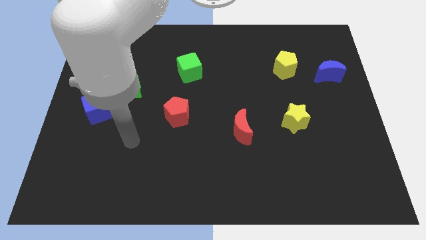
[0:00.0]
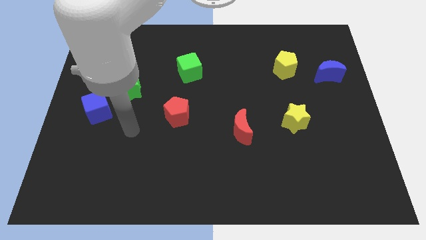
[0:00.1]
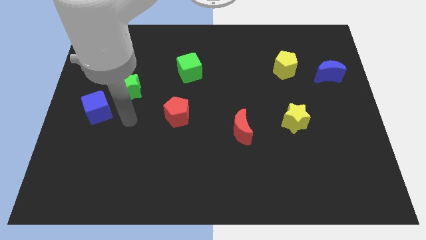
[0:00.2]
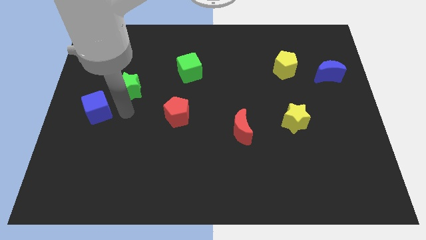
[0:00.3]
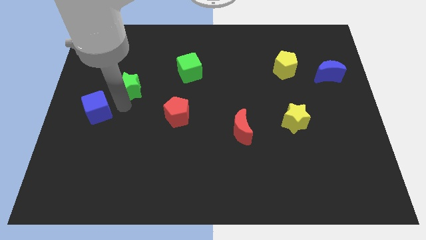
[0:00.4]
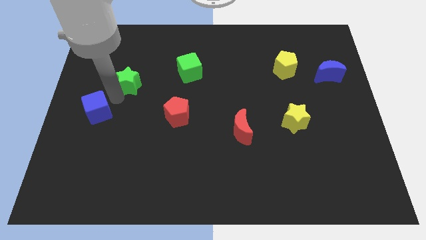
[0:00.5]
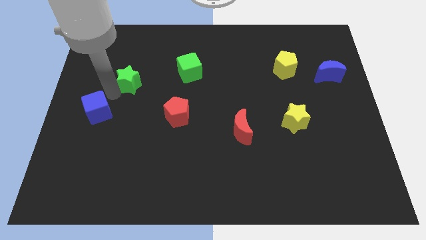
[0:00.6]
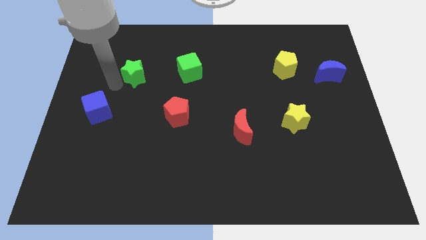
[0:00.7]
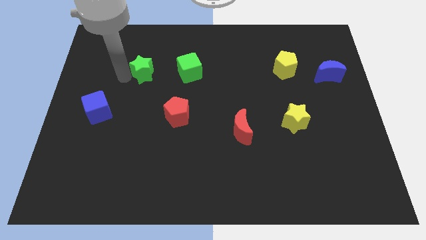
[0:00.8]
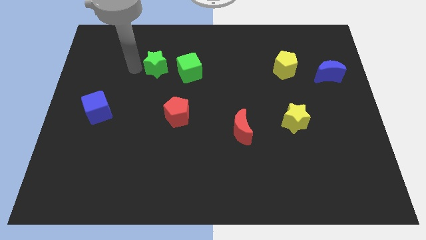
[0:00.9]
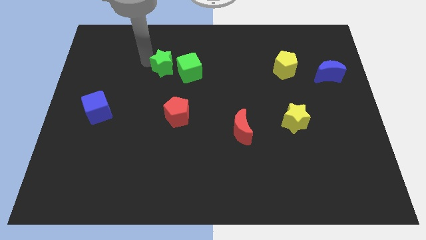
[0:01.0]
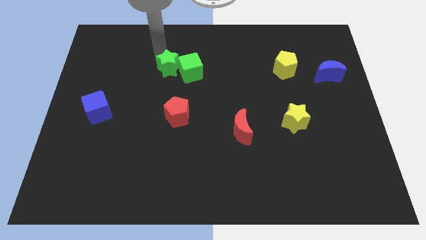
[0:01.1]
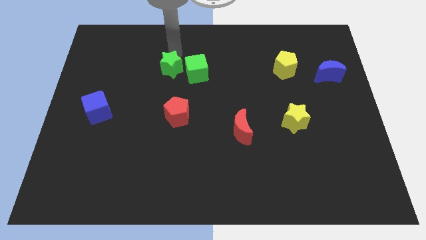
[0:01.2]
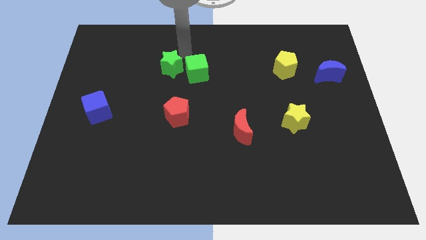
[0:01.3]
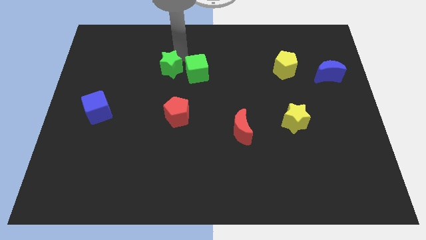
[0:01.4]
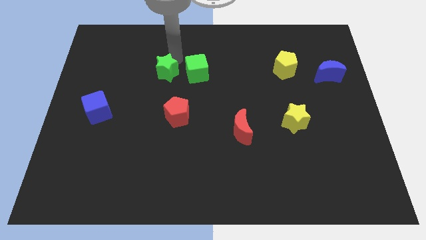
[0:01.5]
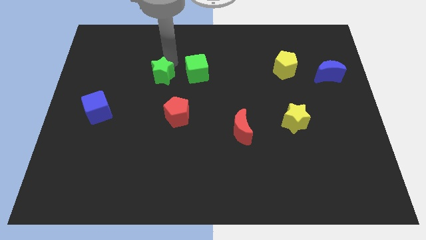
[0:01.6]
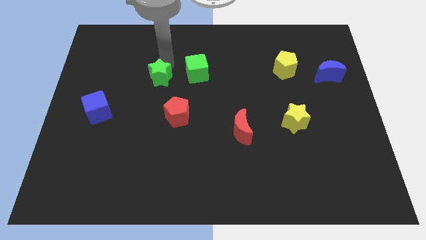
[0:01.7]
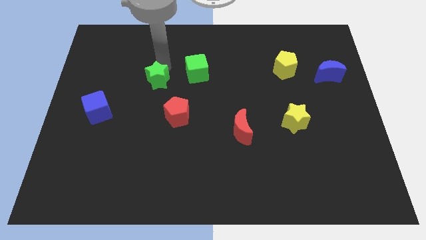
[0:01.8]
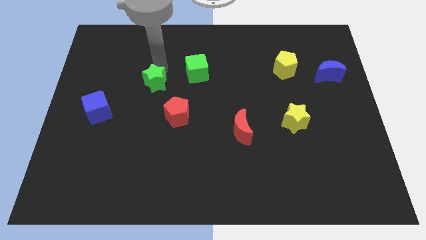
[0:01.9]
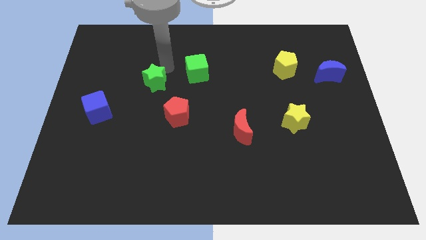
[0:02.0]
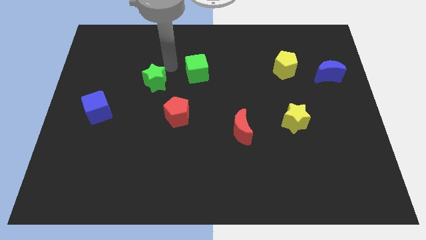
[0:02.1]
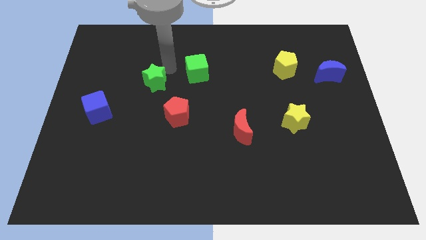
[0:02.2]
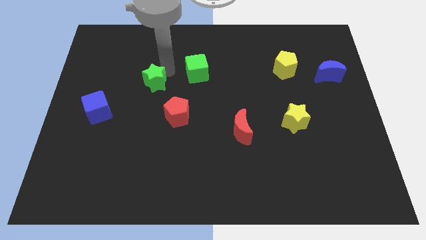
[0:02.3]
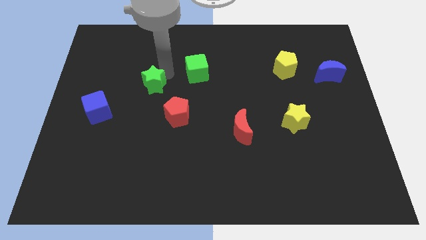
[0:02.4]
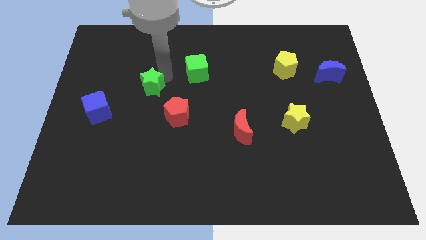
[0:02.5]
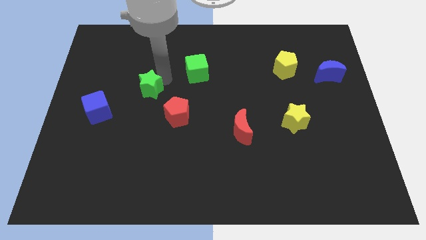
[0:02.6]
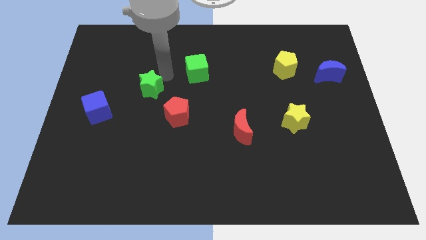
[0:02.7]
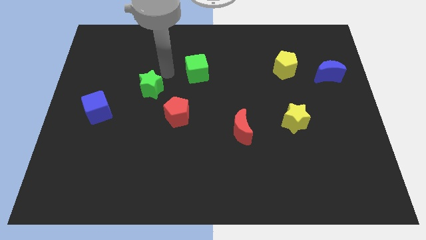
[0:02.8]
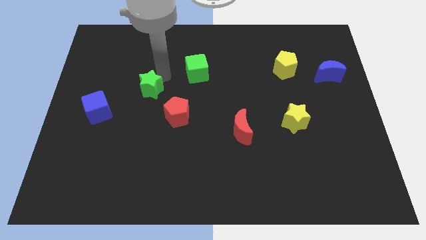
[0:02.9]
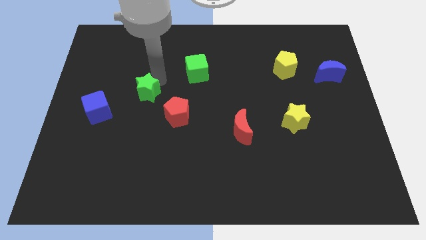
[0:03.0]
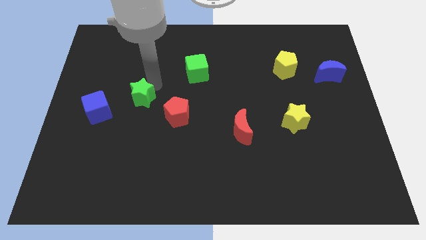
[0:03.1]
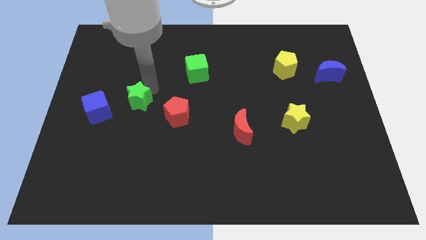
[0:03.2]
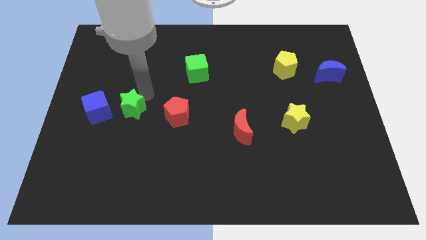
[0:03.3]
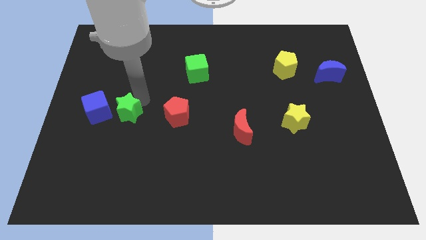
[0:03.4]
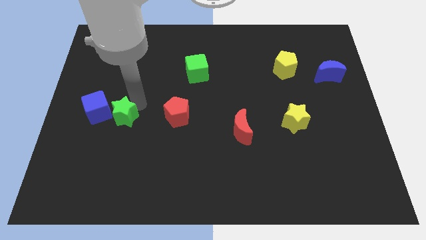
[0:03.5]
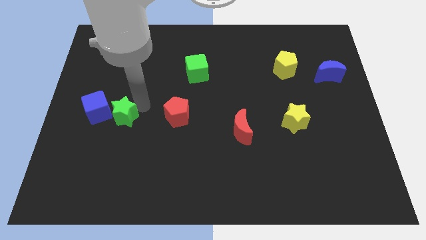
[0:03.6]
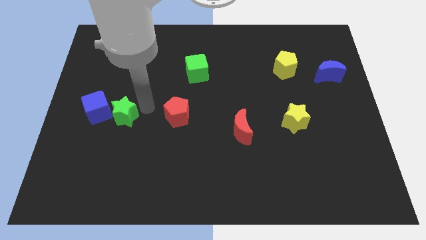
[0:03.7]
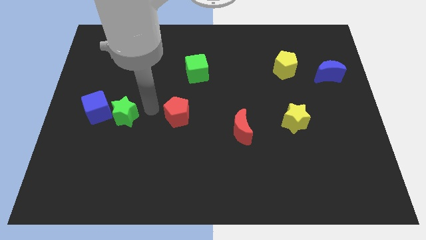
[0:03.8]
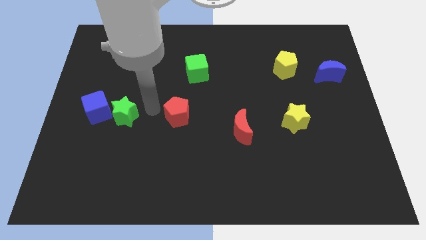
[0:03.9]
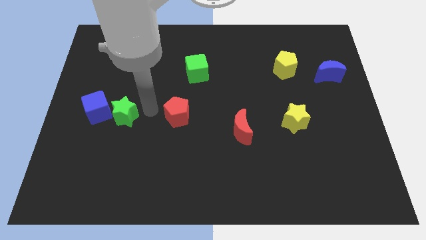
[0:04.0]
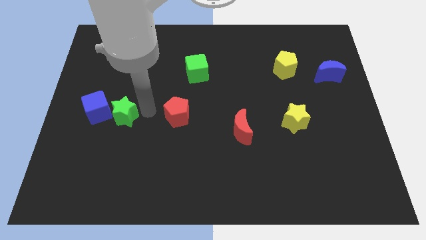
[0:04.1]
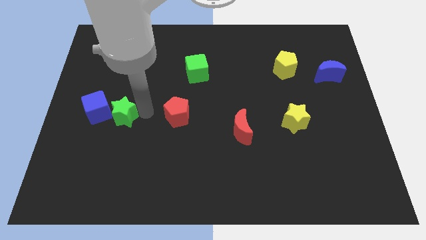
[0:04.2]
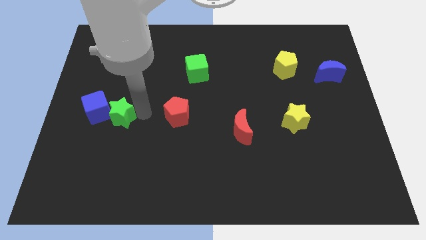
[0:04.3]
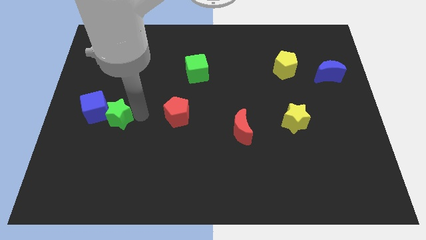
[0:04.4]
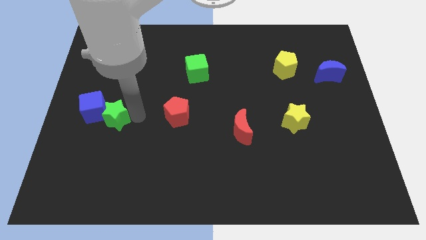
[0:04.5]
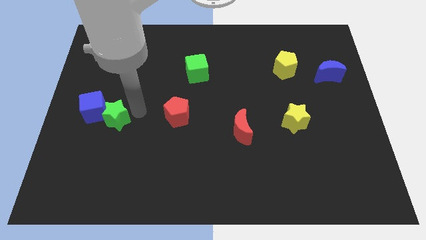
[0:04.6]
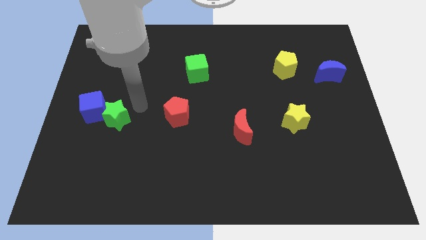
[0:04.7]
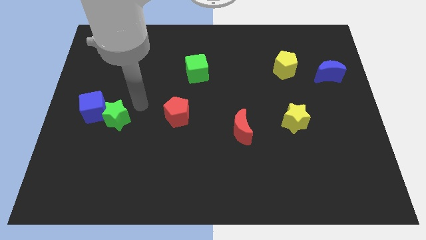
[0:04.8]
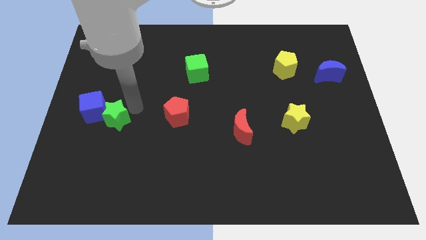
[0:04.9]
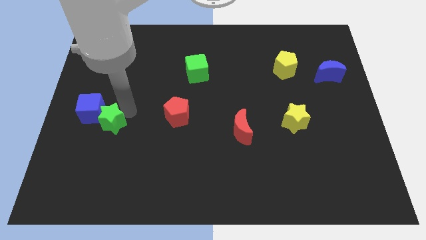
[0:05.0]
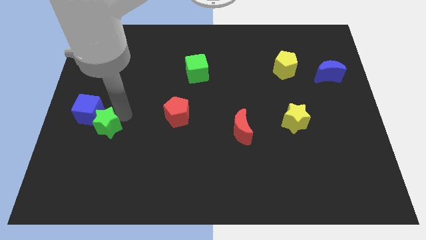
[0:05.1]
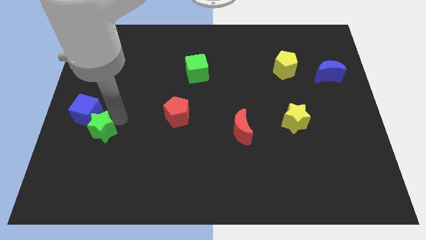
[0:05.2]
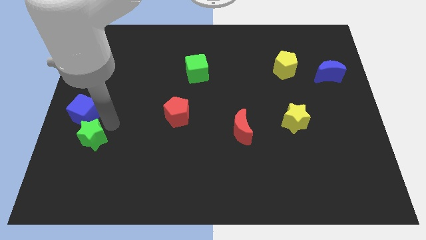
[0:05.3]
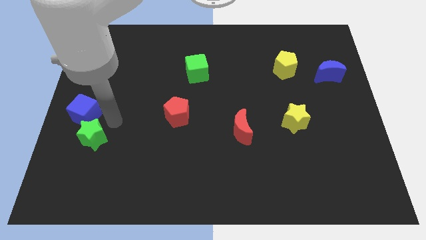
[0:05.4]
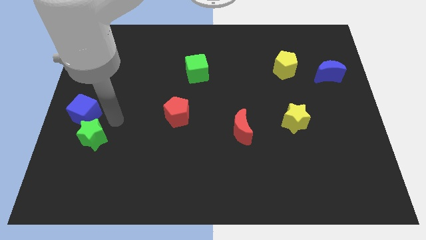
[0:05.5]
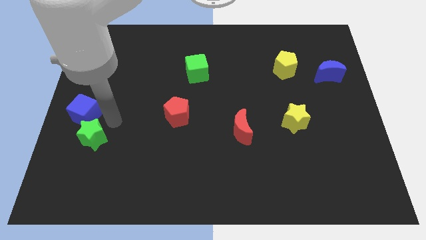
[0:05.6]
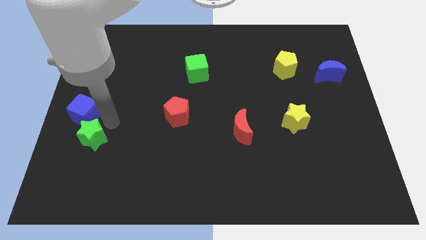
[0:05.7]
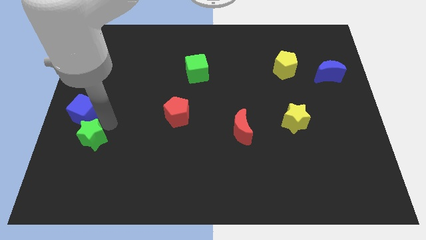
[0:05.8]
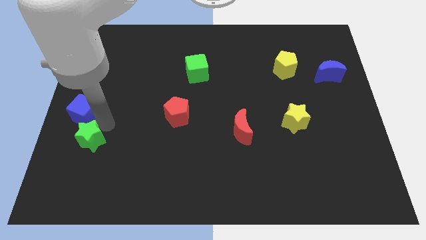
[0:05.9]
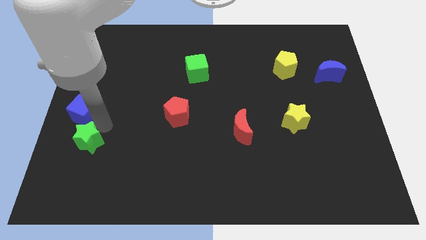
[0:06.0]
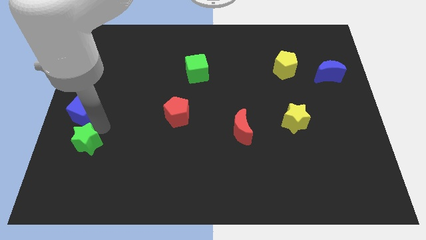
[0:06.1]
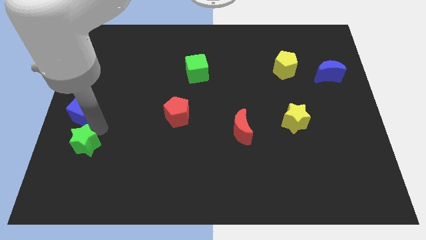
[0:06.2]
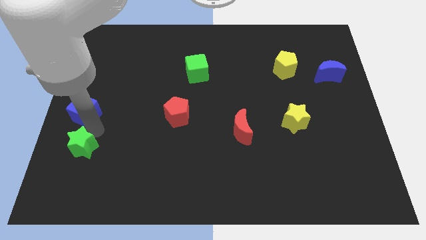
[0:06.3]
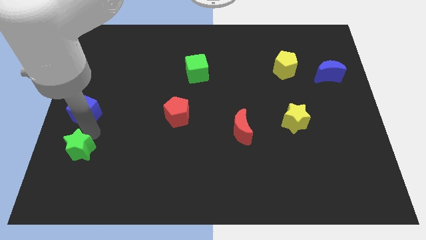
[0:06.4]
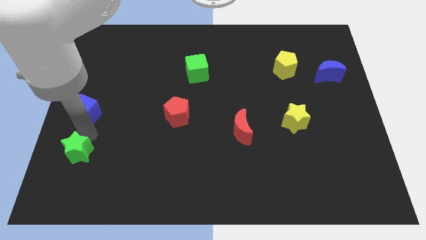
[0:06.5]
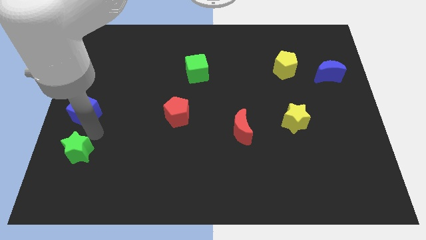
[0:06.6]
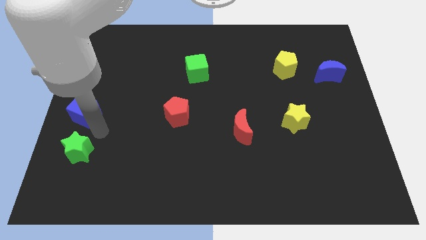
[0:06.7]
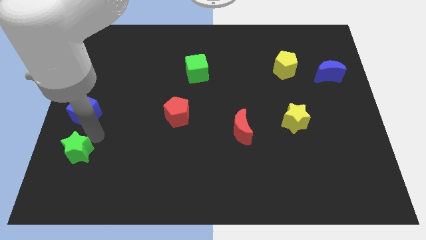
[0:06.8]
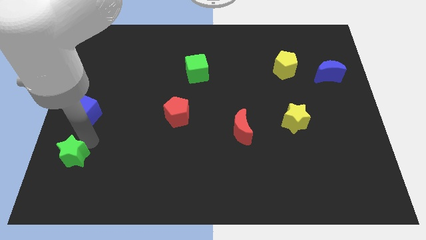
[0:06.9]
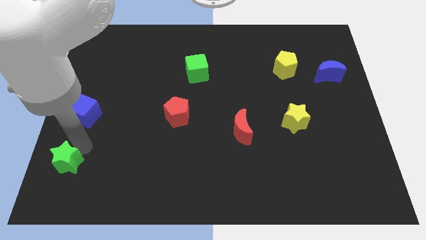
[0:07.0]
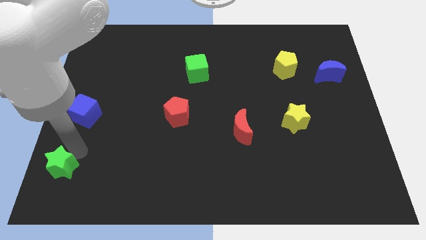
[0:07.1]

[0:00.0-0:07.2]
push the green star to the lower left corner

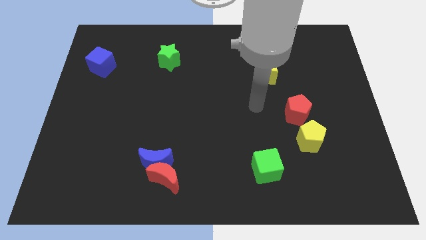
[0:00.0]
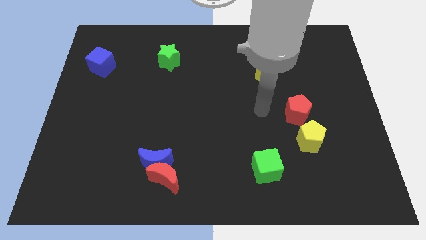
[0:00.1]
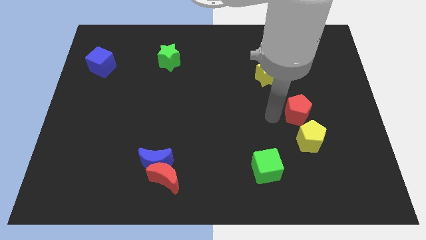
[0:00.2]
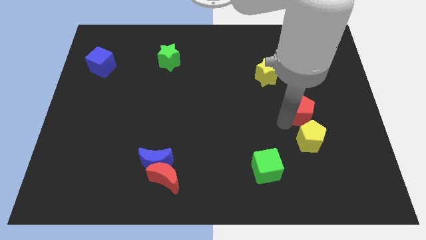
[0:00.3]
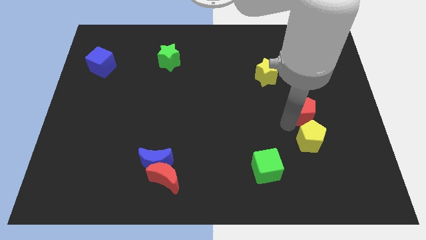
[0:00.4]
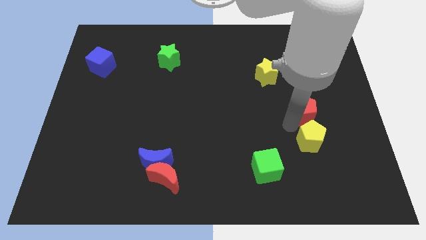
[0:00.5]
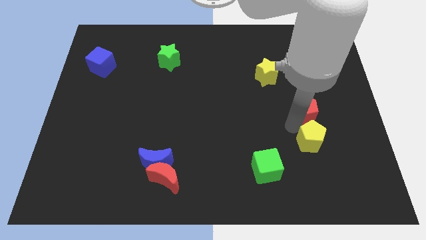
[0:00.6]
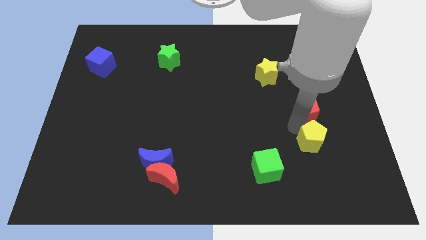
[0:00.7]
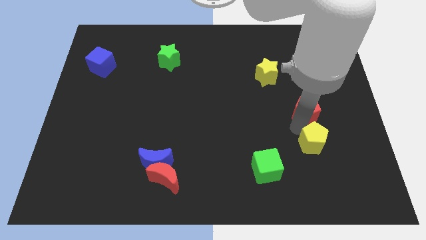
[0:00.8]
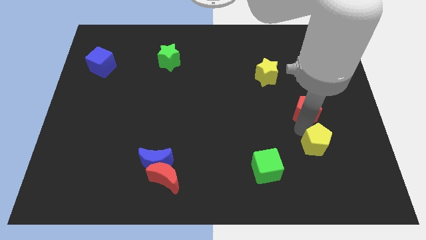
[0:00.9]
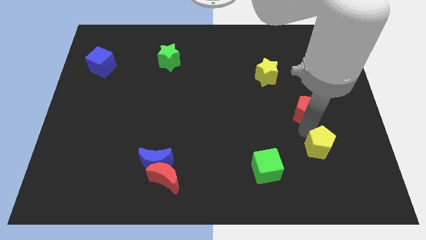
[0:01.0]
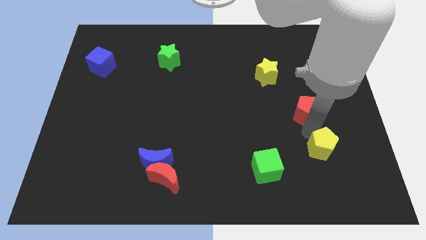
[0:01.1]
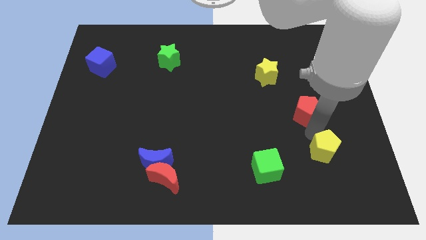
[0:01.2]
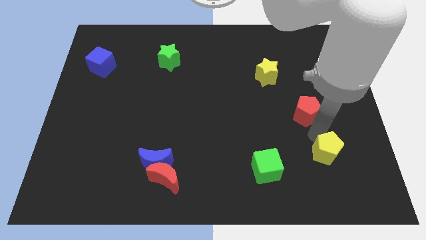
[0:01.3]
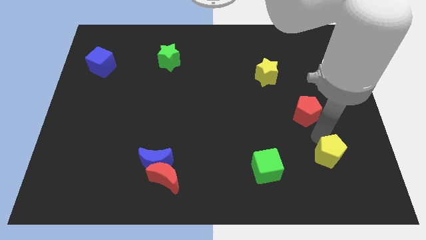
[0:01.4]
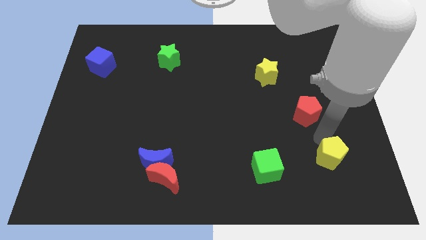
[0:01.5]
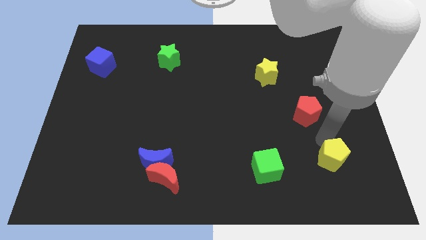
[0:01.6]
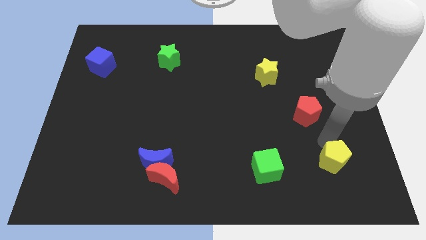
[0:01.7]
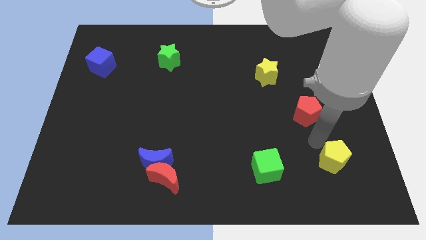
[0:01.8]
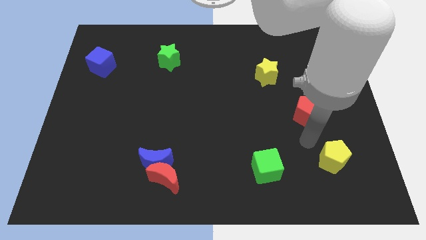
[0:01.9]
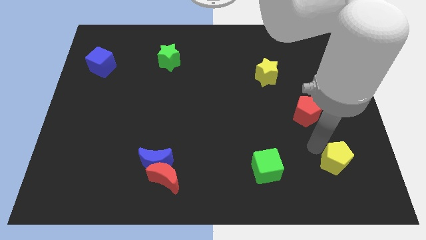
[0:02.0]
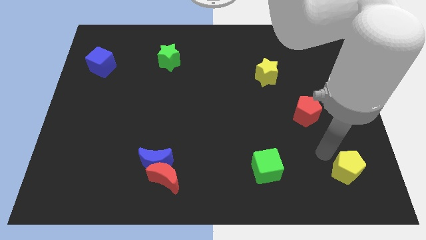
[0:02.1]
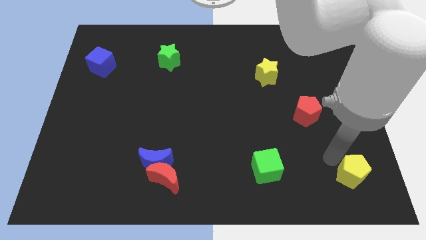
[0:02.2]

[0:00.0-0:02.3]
slide the yellow pentagon to the bottom right of the board
